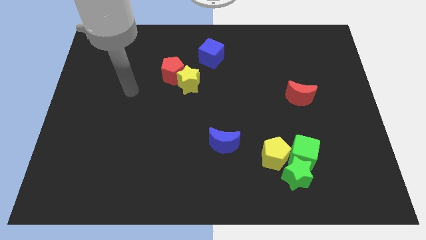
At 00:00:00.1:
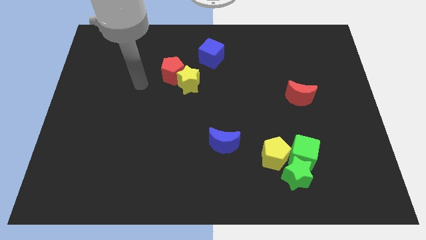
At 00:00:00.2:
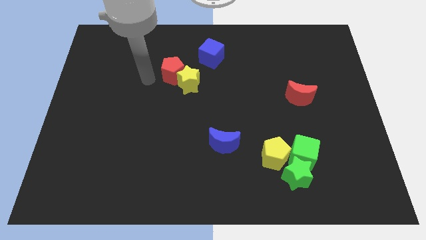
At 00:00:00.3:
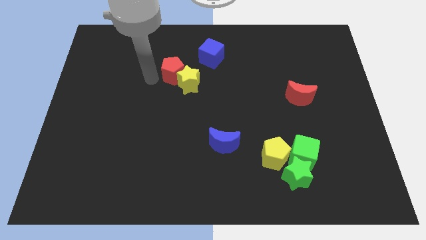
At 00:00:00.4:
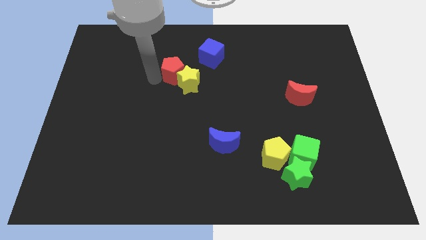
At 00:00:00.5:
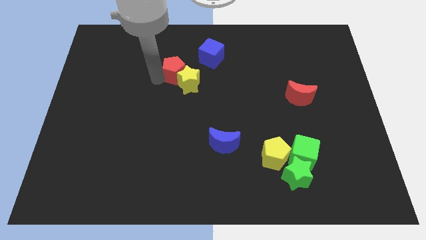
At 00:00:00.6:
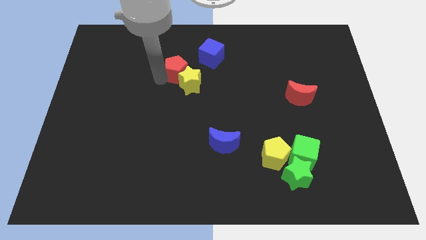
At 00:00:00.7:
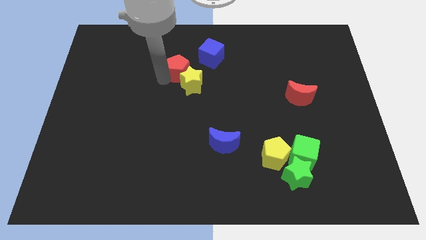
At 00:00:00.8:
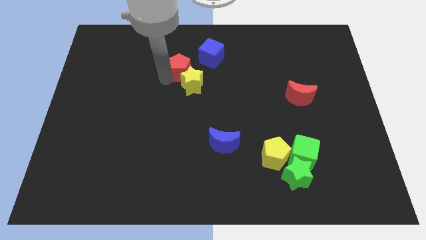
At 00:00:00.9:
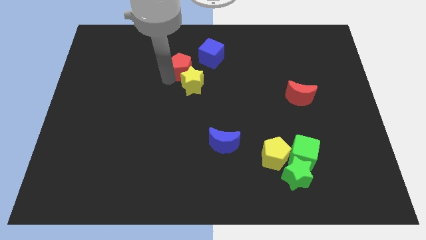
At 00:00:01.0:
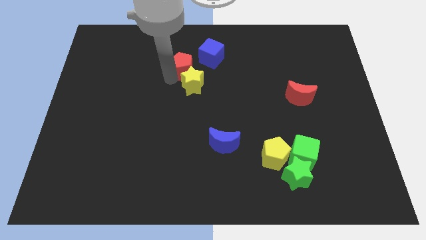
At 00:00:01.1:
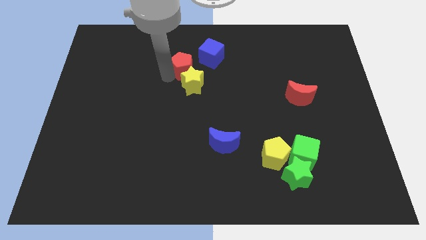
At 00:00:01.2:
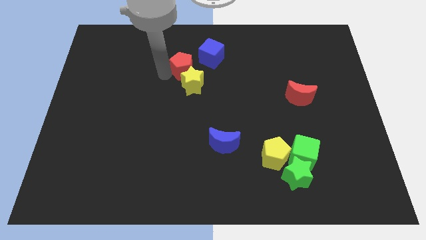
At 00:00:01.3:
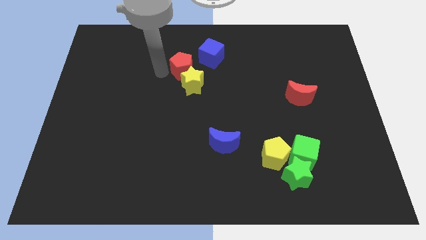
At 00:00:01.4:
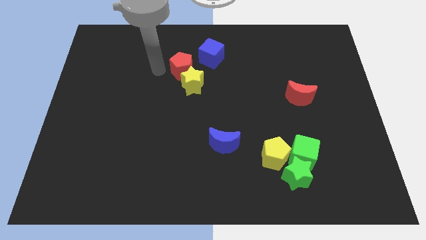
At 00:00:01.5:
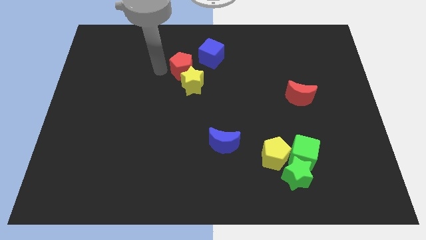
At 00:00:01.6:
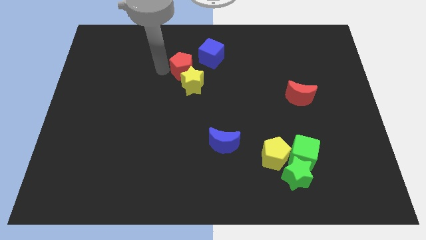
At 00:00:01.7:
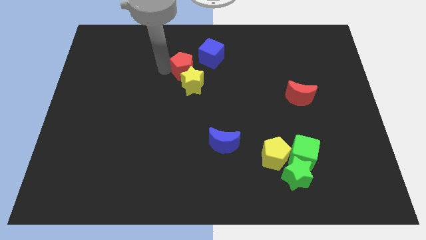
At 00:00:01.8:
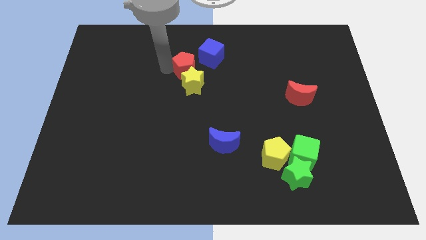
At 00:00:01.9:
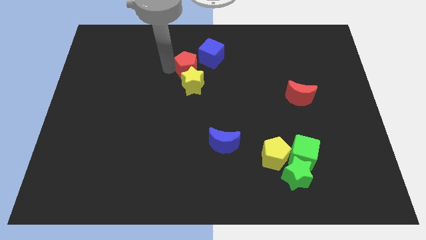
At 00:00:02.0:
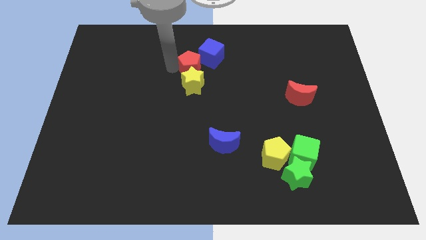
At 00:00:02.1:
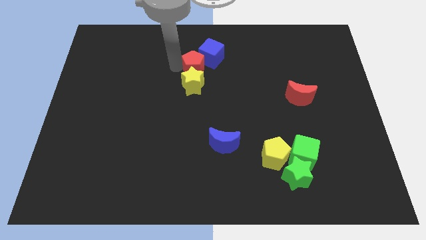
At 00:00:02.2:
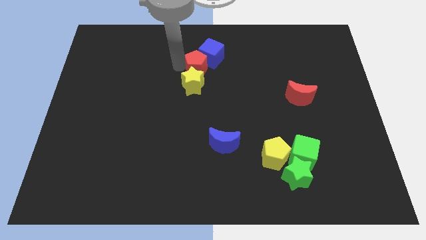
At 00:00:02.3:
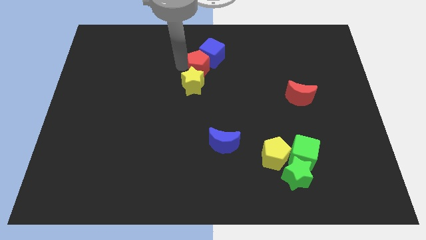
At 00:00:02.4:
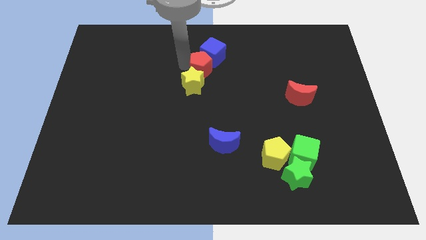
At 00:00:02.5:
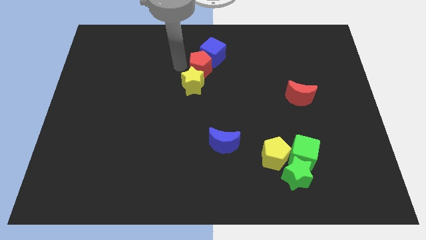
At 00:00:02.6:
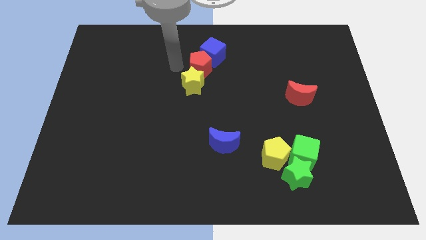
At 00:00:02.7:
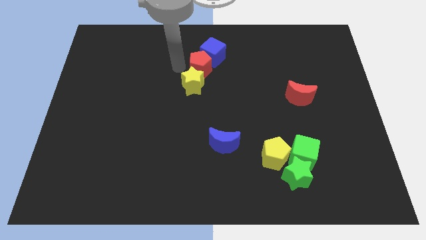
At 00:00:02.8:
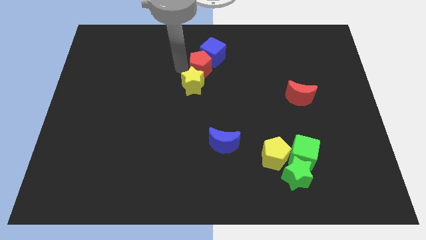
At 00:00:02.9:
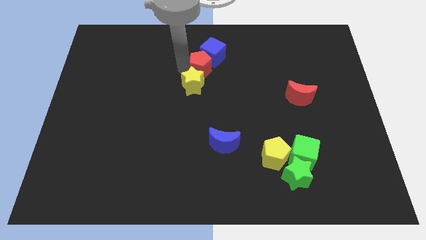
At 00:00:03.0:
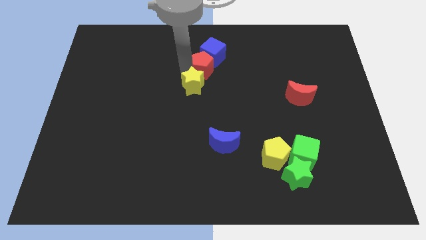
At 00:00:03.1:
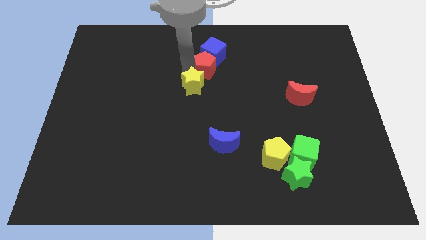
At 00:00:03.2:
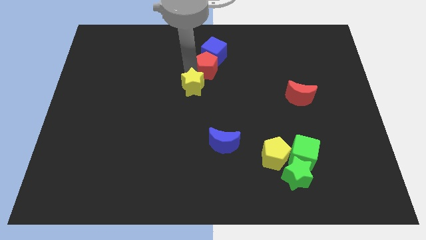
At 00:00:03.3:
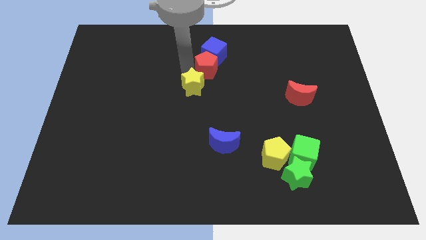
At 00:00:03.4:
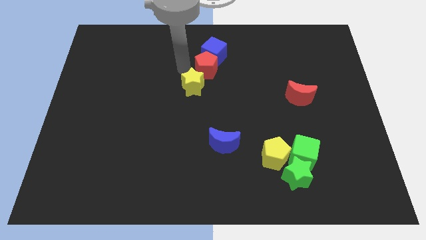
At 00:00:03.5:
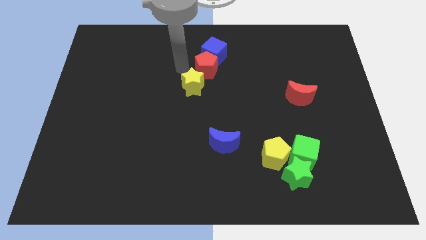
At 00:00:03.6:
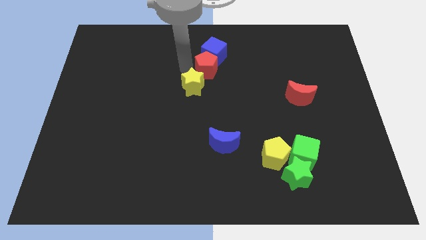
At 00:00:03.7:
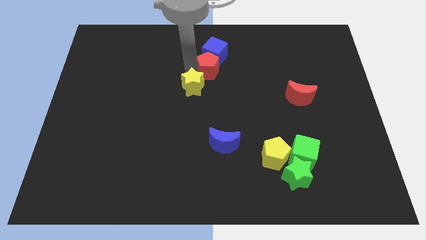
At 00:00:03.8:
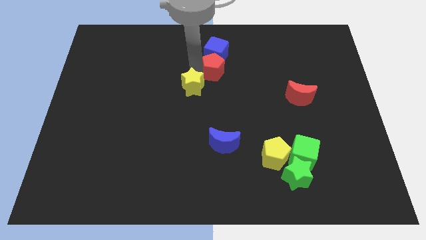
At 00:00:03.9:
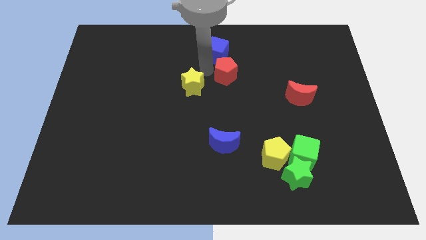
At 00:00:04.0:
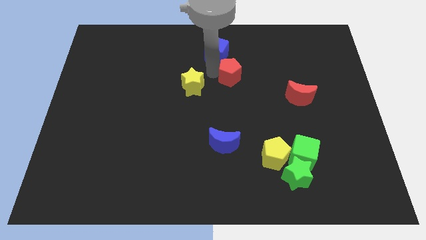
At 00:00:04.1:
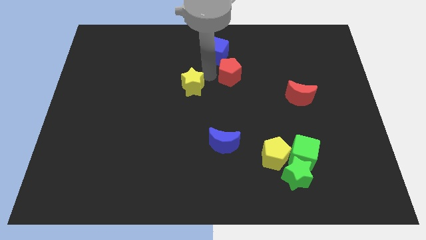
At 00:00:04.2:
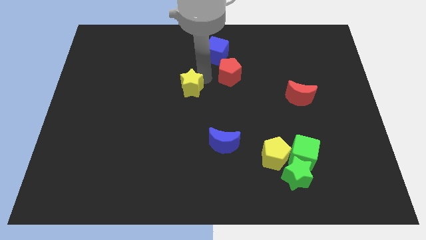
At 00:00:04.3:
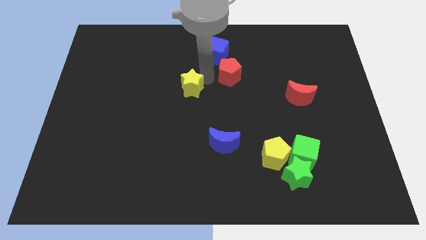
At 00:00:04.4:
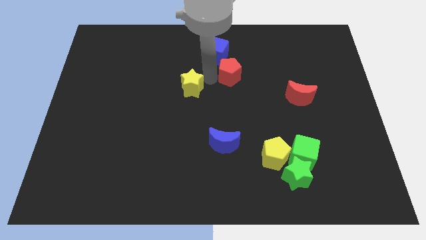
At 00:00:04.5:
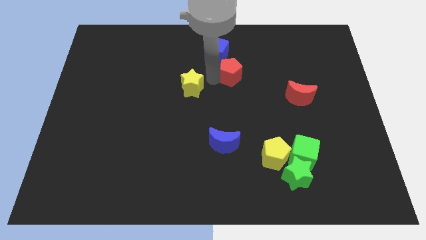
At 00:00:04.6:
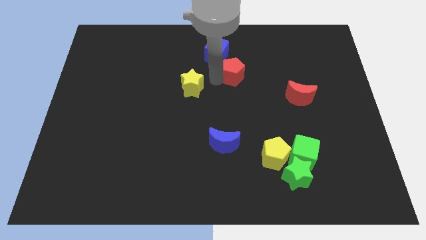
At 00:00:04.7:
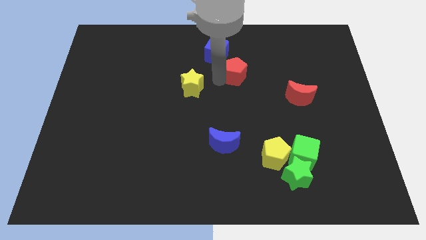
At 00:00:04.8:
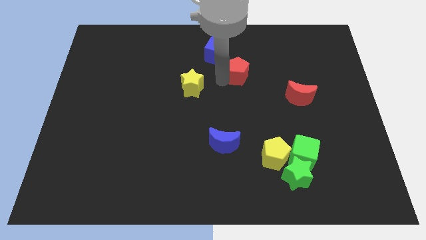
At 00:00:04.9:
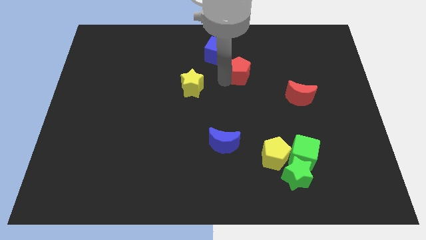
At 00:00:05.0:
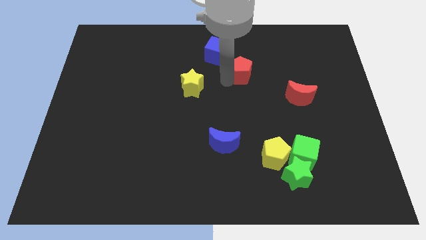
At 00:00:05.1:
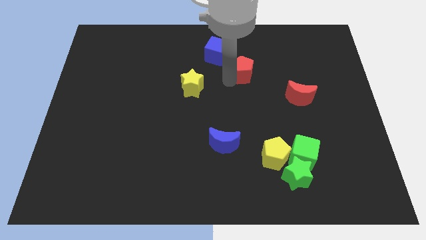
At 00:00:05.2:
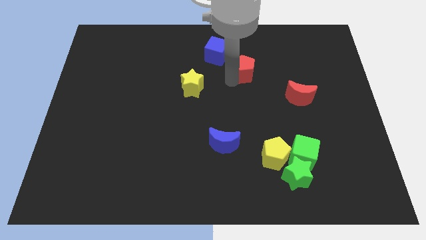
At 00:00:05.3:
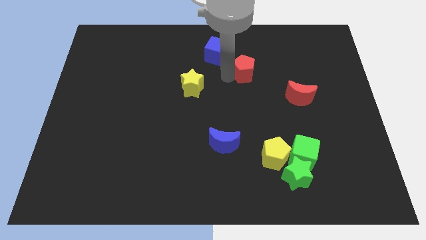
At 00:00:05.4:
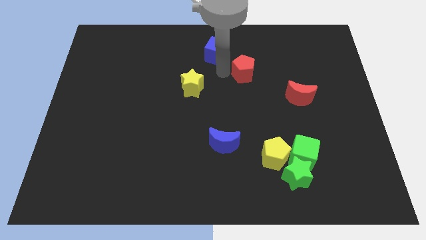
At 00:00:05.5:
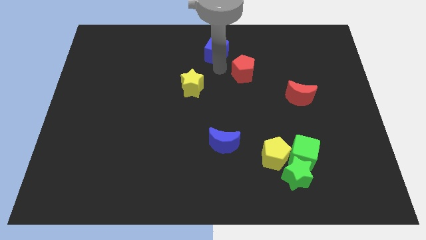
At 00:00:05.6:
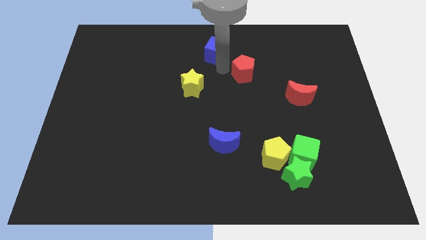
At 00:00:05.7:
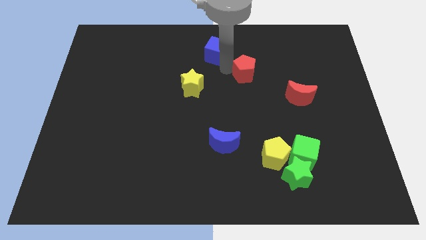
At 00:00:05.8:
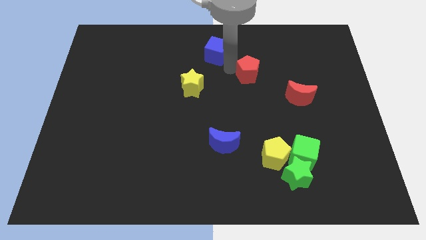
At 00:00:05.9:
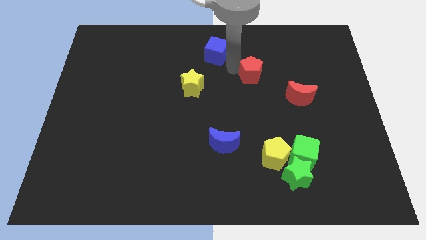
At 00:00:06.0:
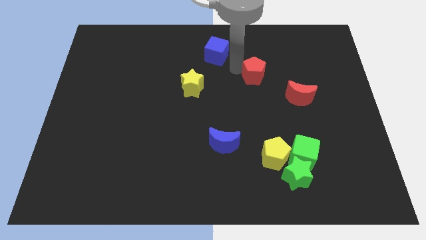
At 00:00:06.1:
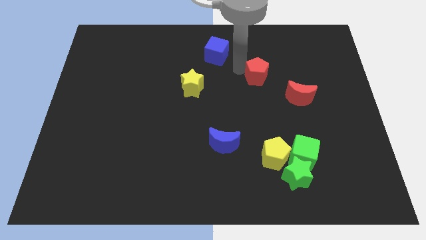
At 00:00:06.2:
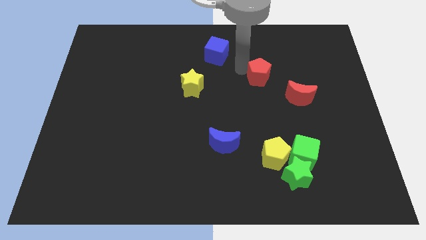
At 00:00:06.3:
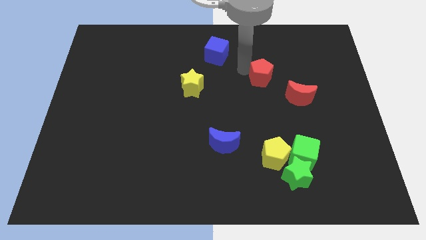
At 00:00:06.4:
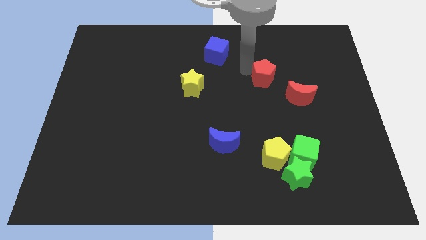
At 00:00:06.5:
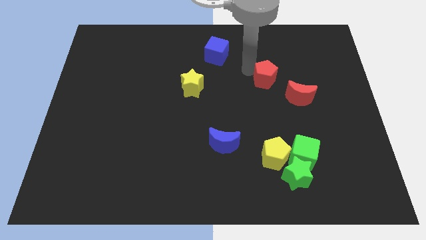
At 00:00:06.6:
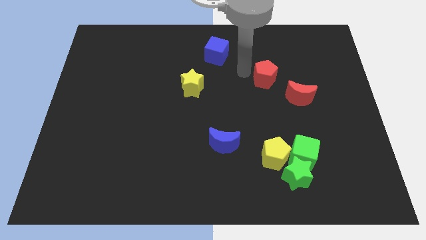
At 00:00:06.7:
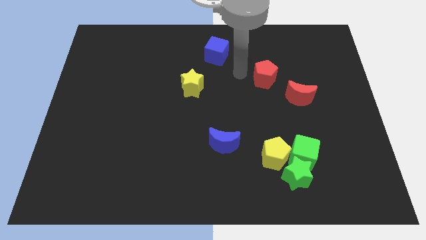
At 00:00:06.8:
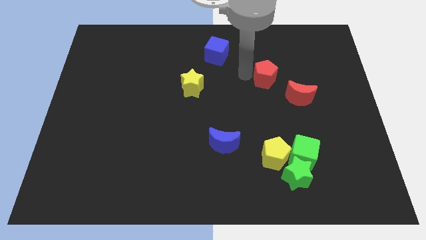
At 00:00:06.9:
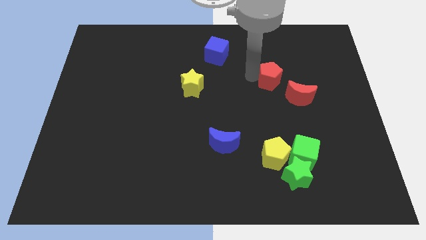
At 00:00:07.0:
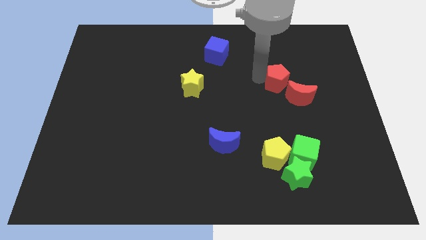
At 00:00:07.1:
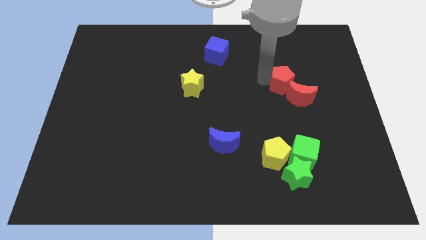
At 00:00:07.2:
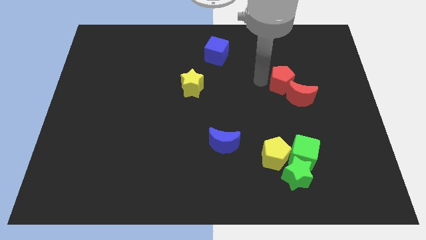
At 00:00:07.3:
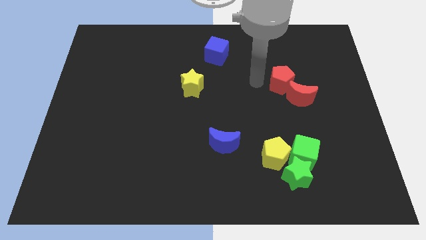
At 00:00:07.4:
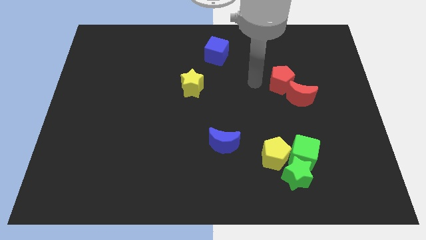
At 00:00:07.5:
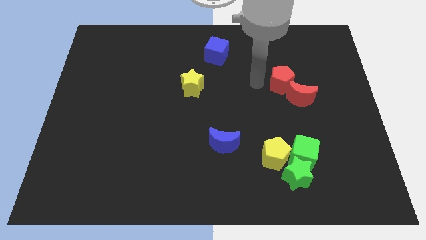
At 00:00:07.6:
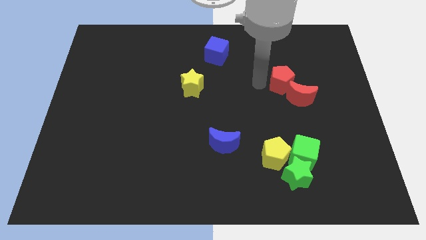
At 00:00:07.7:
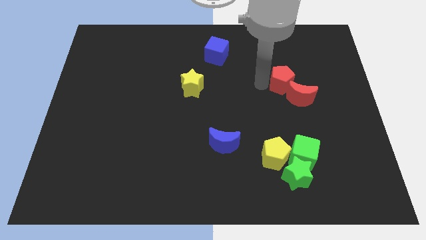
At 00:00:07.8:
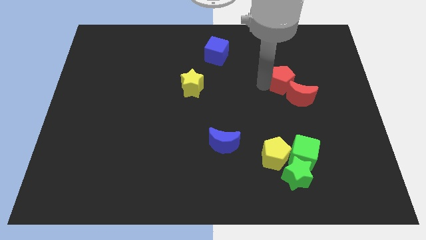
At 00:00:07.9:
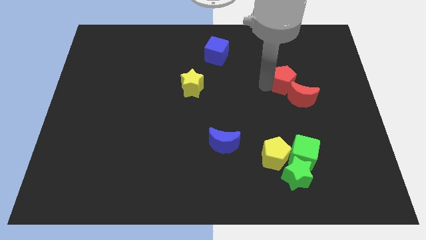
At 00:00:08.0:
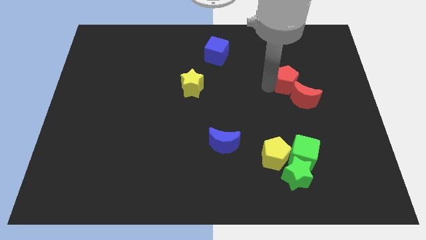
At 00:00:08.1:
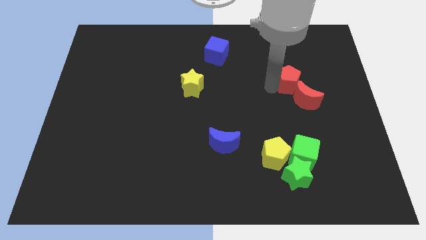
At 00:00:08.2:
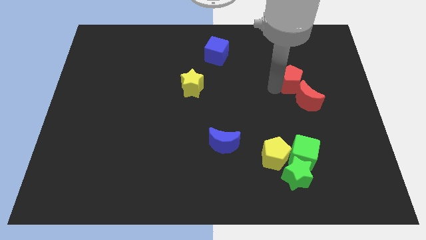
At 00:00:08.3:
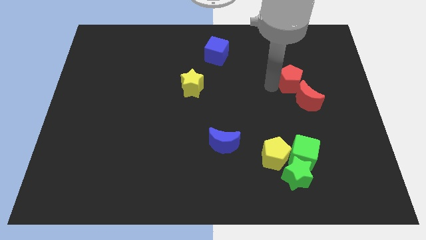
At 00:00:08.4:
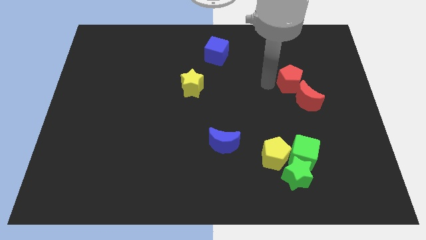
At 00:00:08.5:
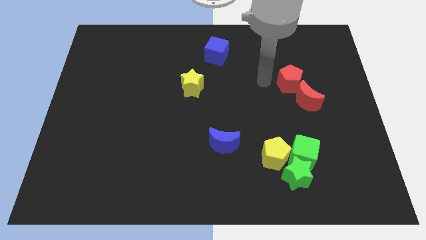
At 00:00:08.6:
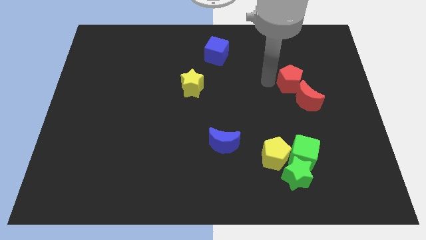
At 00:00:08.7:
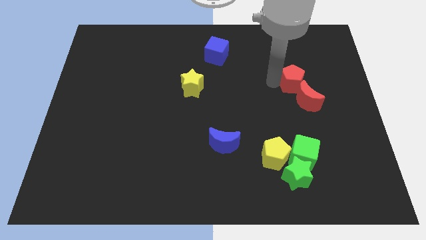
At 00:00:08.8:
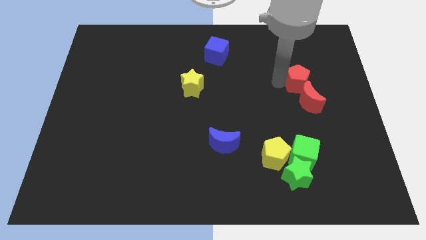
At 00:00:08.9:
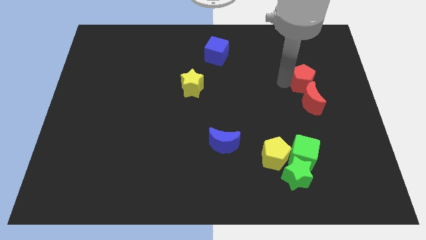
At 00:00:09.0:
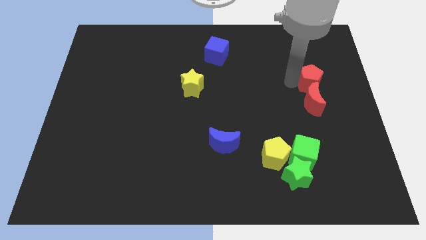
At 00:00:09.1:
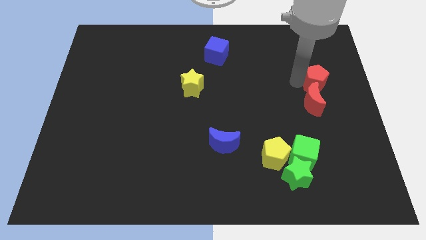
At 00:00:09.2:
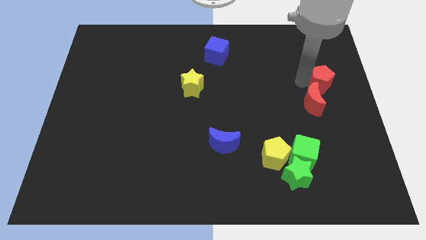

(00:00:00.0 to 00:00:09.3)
slide the red pentagon to the center right
